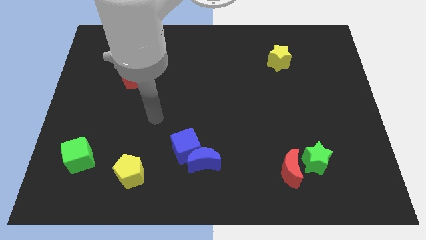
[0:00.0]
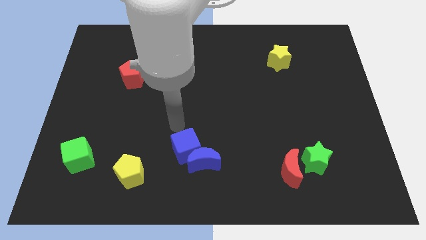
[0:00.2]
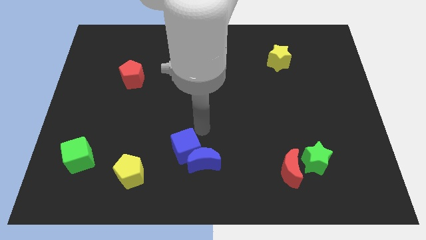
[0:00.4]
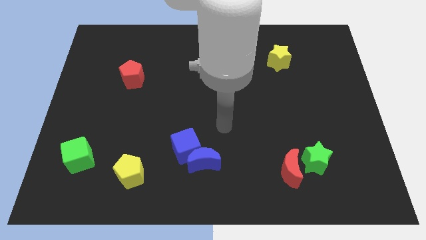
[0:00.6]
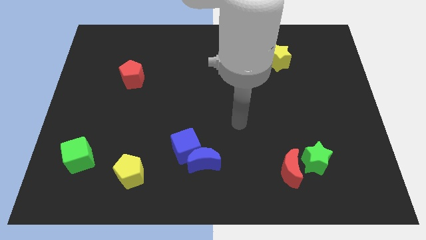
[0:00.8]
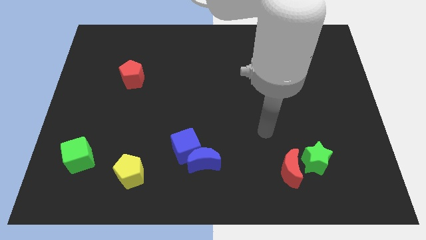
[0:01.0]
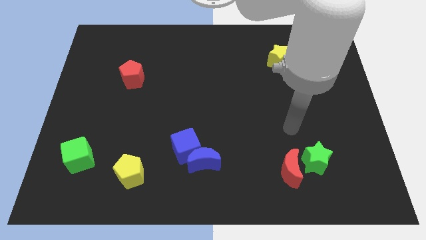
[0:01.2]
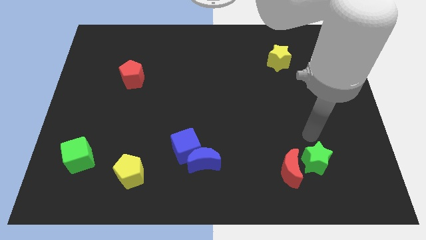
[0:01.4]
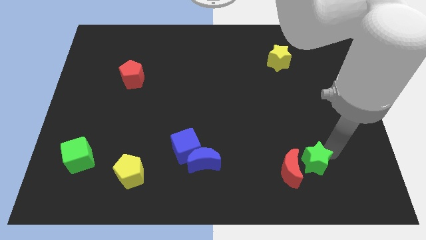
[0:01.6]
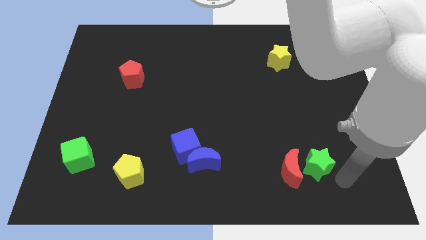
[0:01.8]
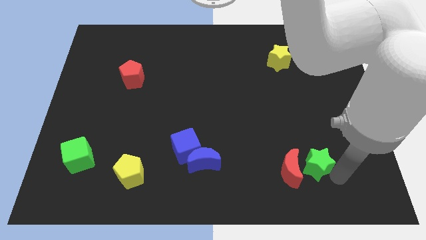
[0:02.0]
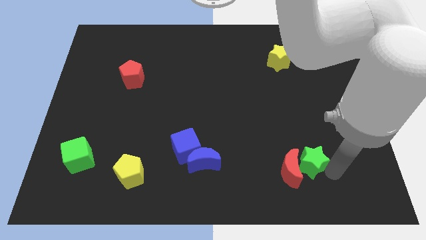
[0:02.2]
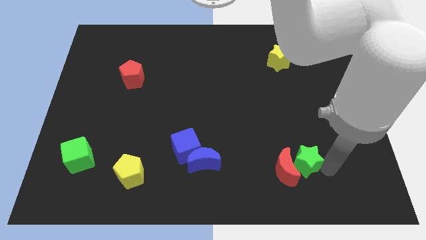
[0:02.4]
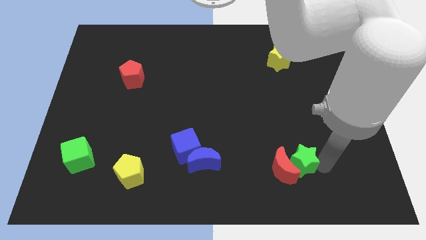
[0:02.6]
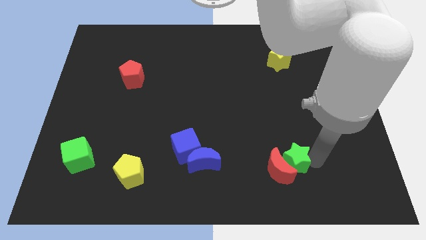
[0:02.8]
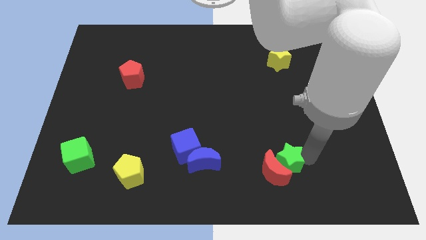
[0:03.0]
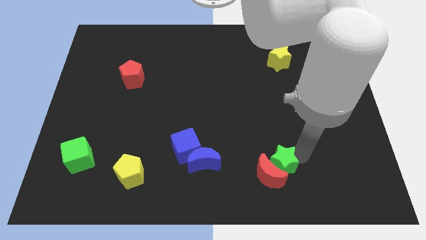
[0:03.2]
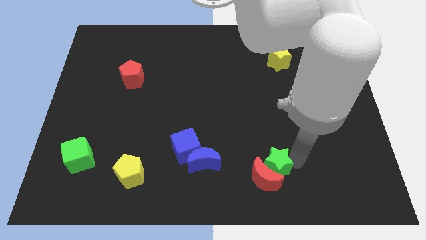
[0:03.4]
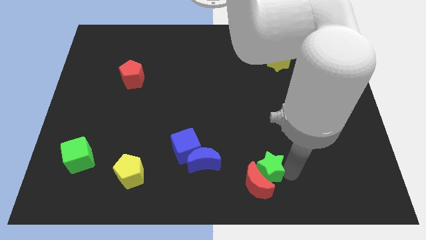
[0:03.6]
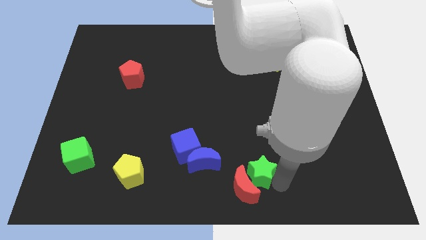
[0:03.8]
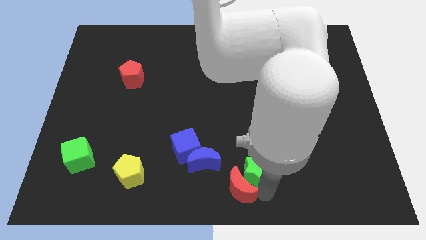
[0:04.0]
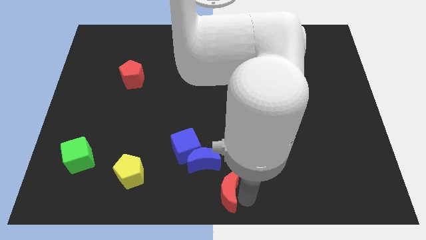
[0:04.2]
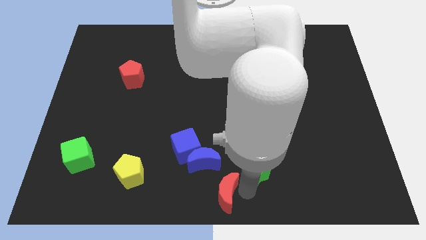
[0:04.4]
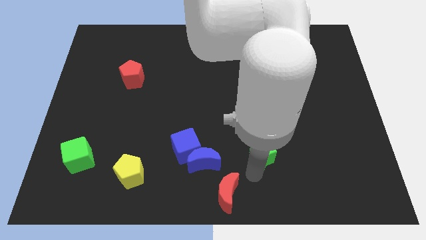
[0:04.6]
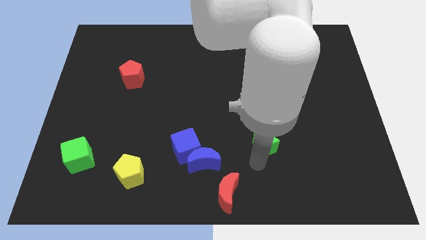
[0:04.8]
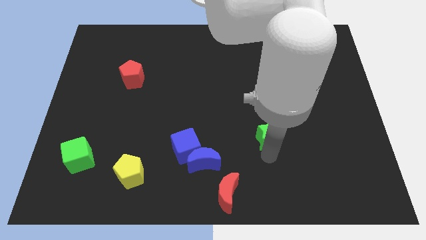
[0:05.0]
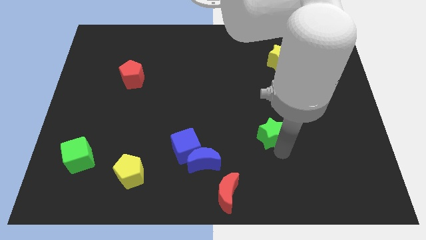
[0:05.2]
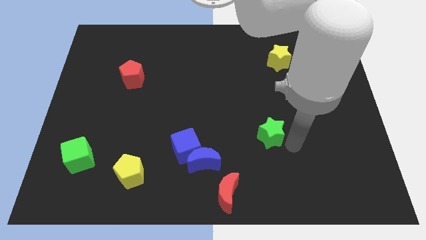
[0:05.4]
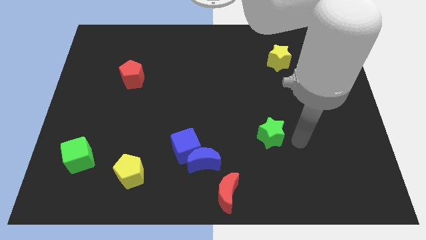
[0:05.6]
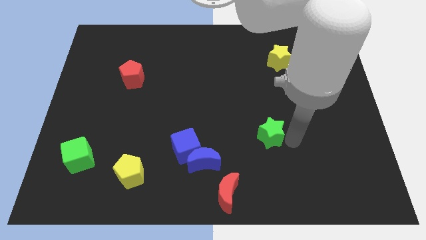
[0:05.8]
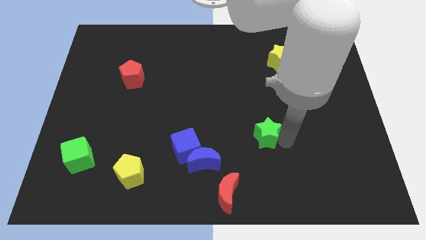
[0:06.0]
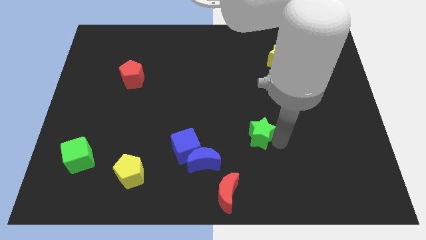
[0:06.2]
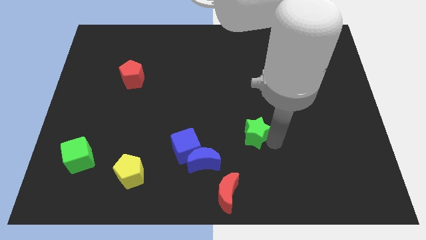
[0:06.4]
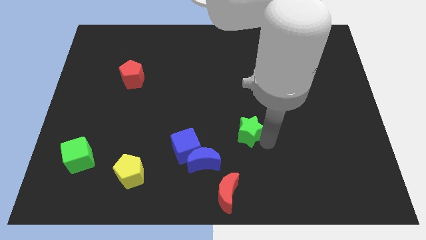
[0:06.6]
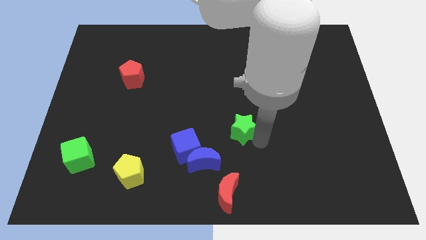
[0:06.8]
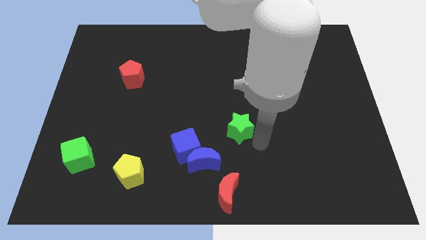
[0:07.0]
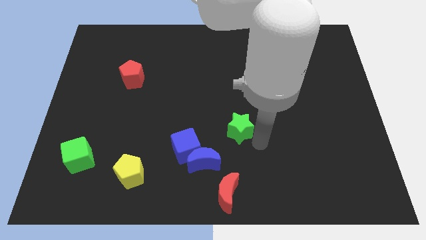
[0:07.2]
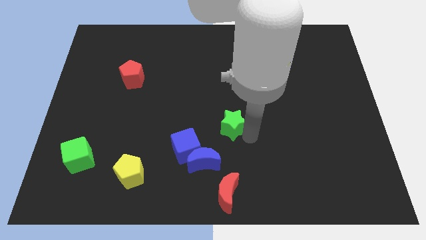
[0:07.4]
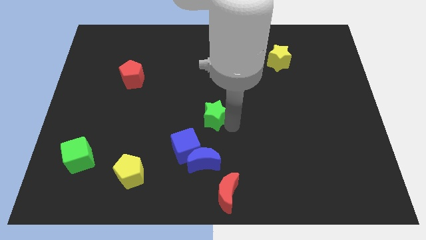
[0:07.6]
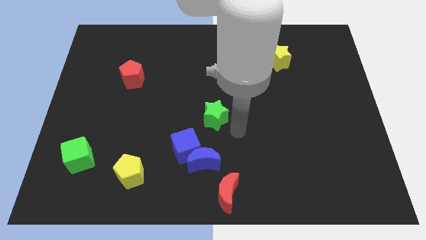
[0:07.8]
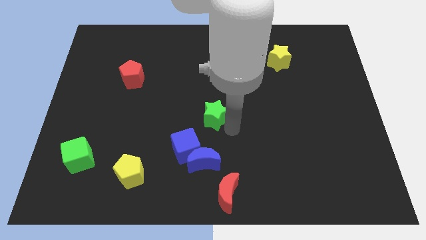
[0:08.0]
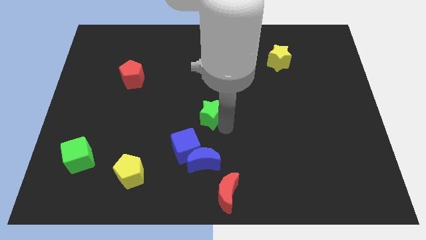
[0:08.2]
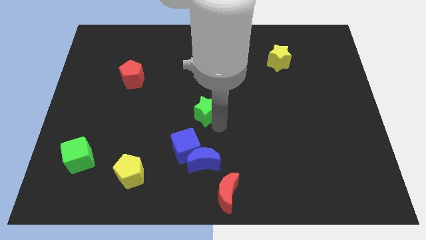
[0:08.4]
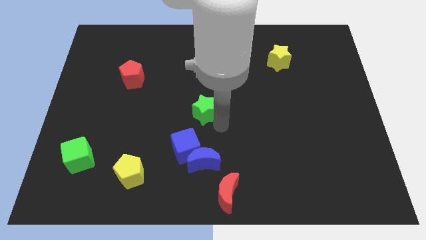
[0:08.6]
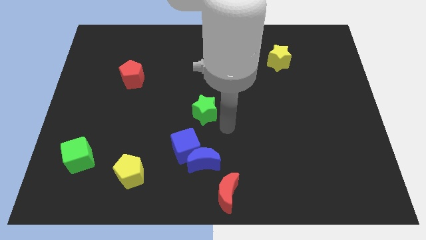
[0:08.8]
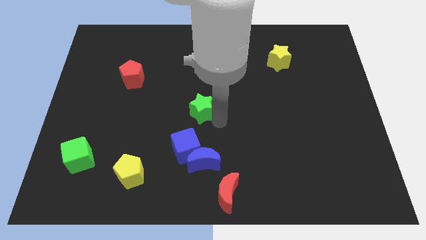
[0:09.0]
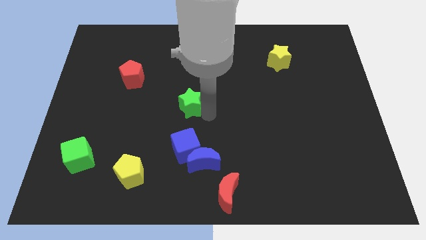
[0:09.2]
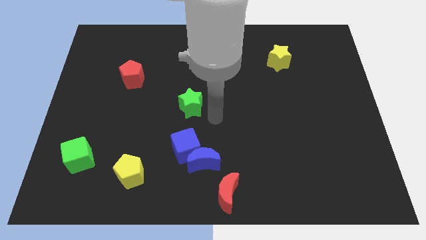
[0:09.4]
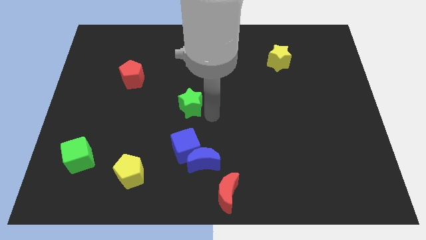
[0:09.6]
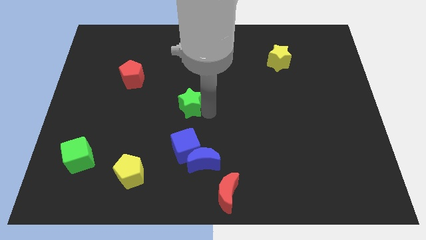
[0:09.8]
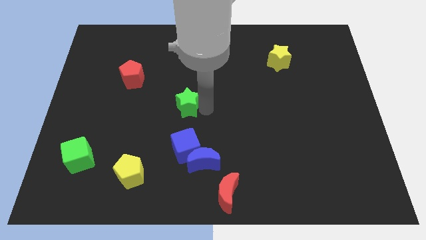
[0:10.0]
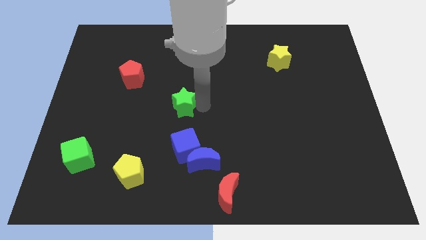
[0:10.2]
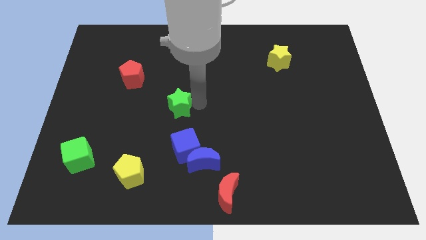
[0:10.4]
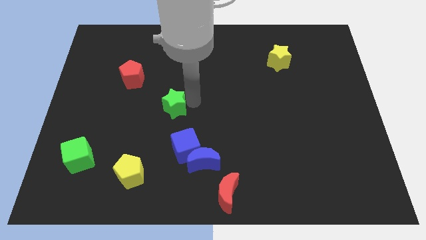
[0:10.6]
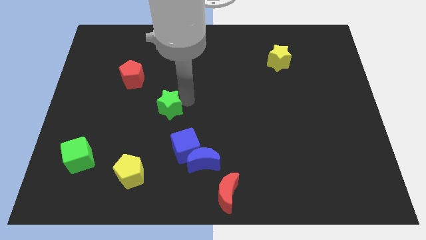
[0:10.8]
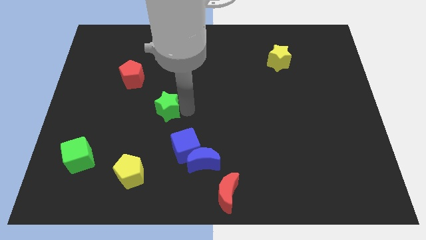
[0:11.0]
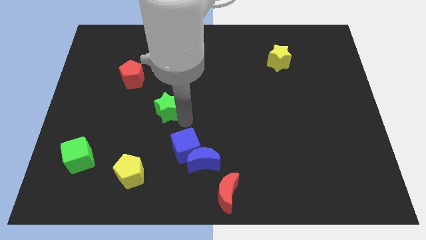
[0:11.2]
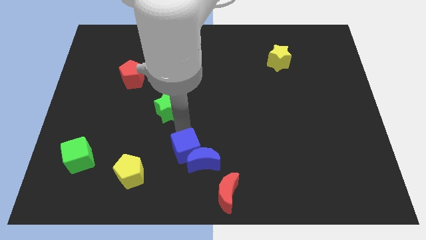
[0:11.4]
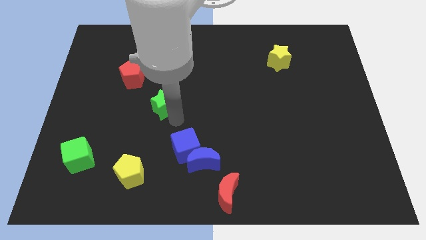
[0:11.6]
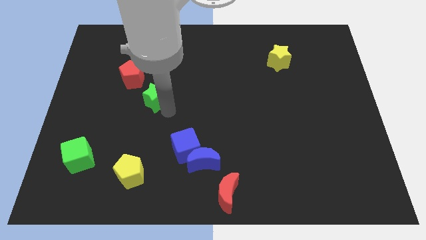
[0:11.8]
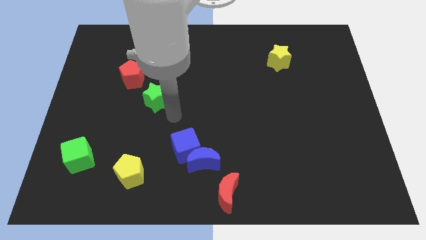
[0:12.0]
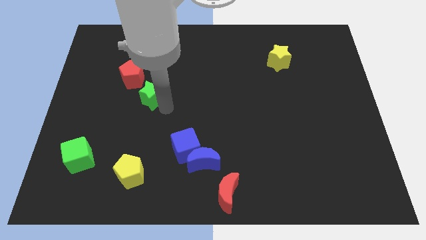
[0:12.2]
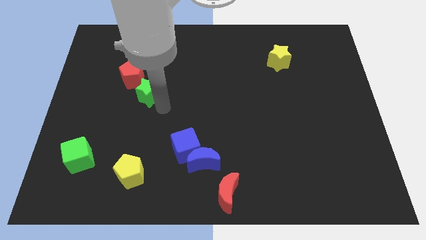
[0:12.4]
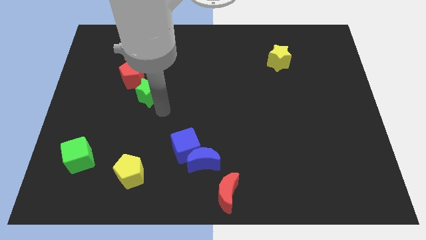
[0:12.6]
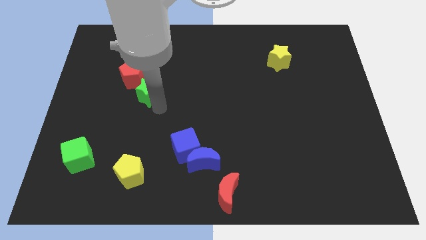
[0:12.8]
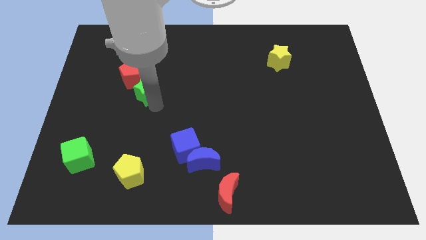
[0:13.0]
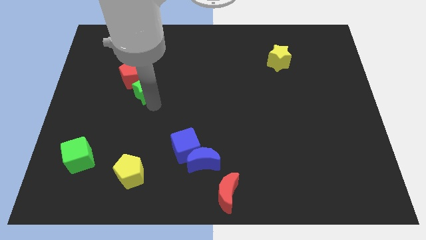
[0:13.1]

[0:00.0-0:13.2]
move the green star towards the red pentagon

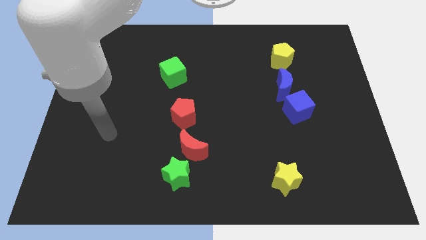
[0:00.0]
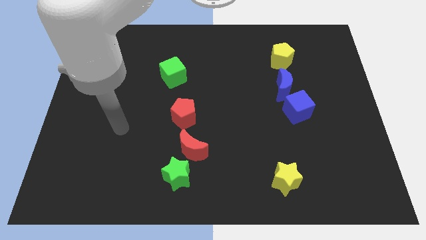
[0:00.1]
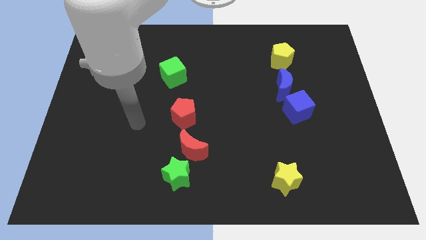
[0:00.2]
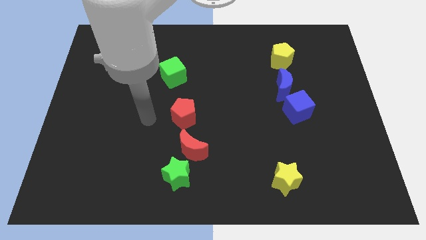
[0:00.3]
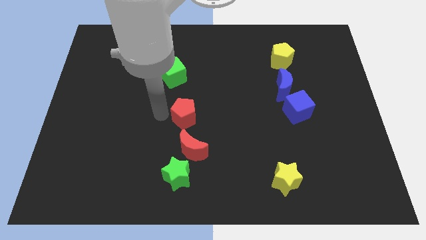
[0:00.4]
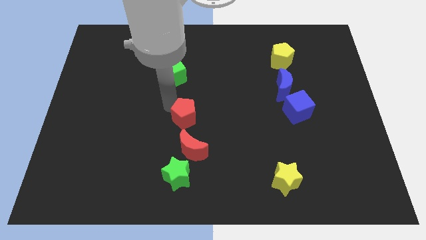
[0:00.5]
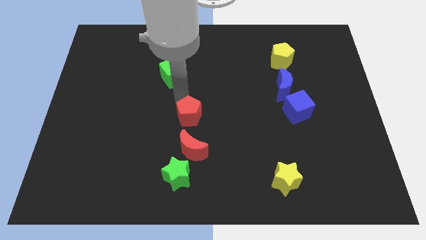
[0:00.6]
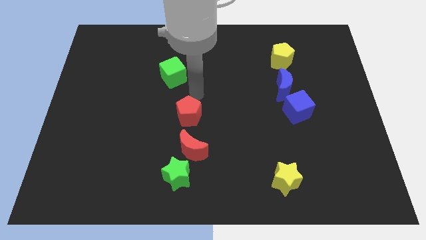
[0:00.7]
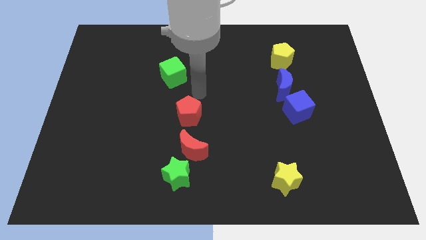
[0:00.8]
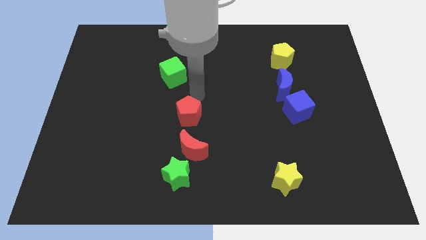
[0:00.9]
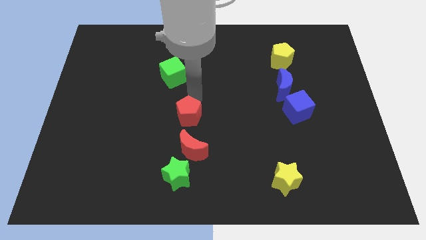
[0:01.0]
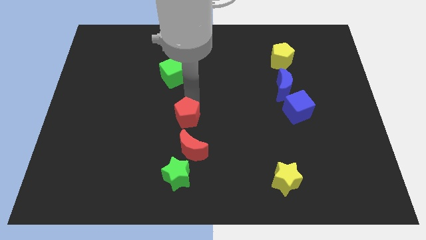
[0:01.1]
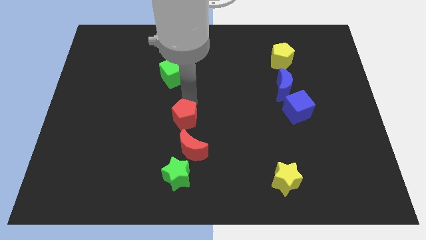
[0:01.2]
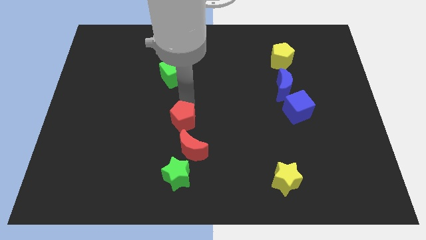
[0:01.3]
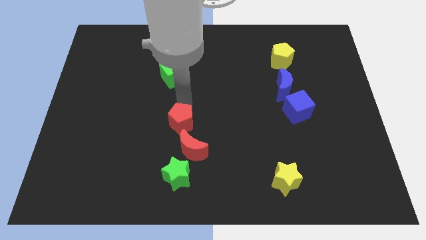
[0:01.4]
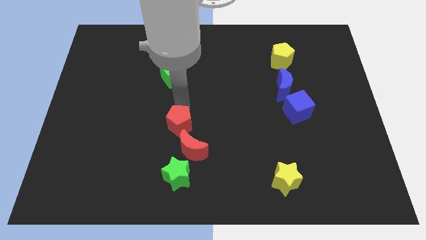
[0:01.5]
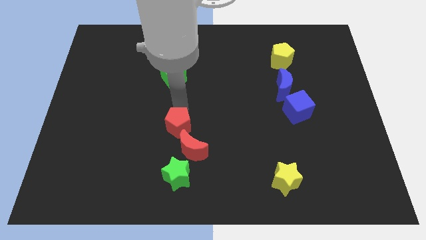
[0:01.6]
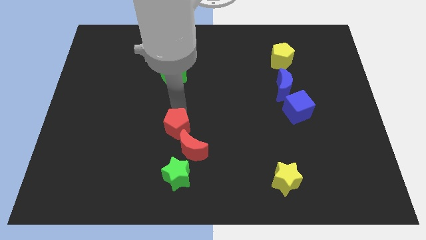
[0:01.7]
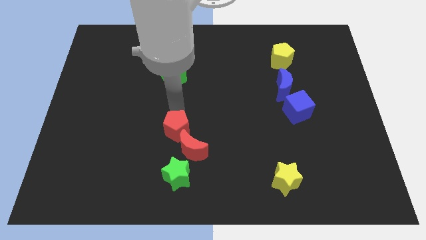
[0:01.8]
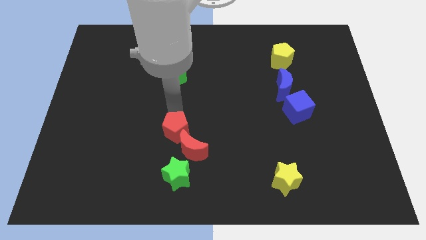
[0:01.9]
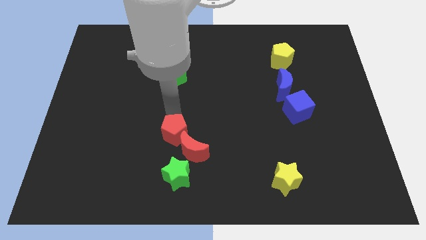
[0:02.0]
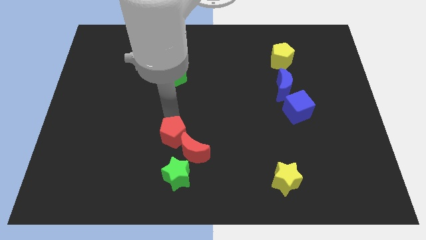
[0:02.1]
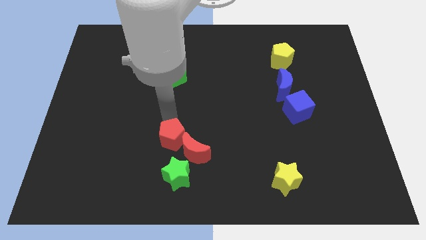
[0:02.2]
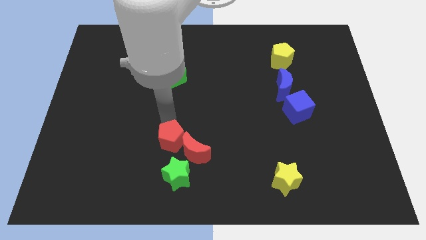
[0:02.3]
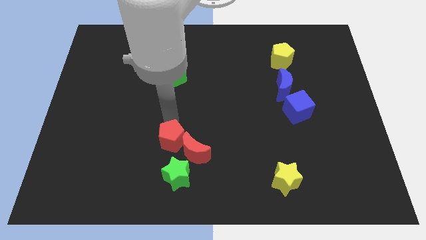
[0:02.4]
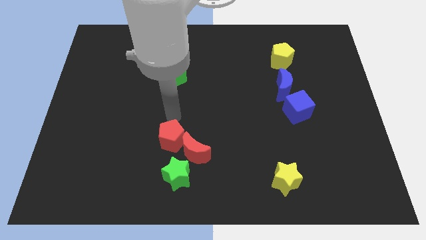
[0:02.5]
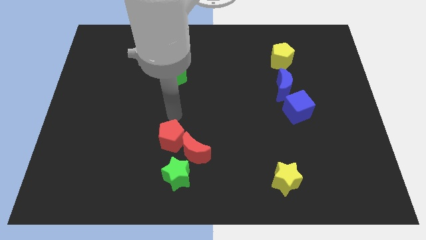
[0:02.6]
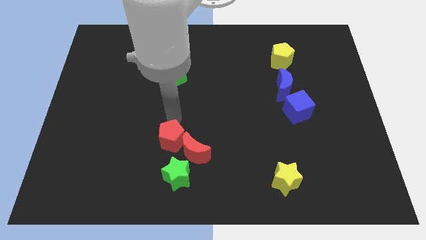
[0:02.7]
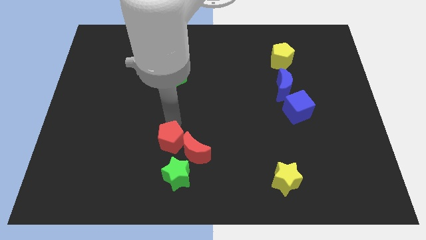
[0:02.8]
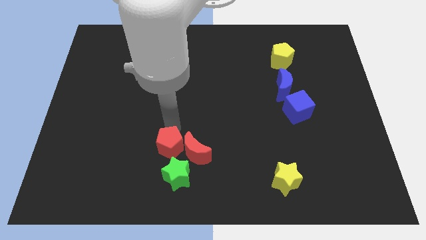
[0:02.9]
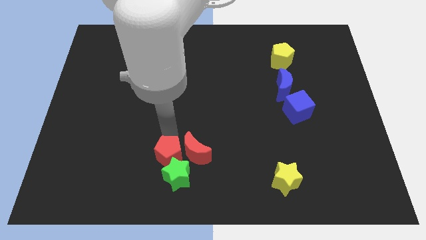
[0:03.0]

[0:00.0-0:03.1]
push the red pentagon close to the green star
